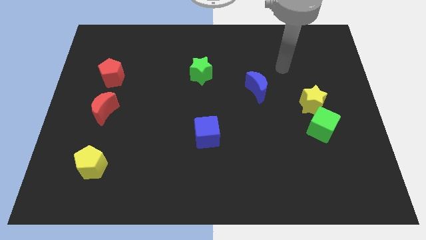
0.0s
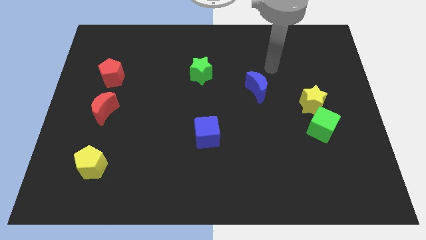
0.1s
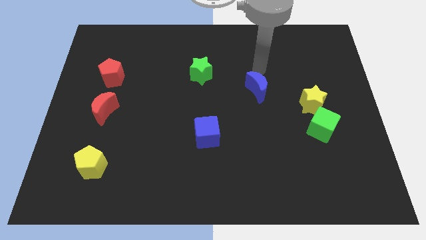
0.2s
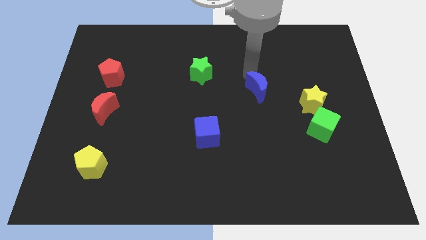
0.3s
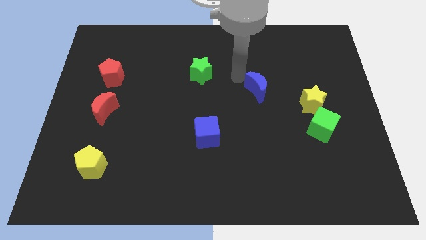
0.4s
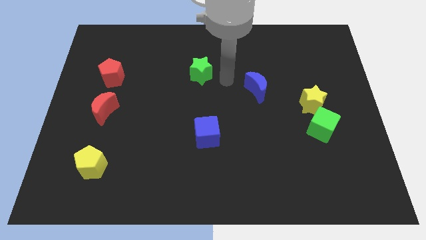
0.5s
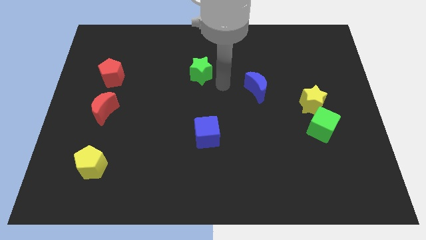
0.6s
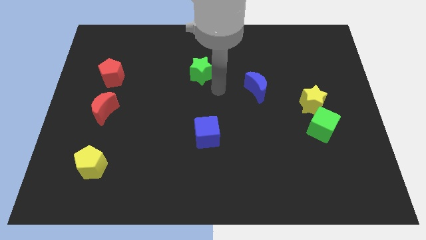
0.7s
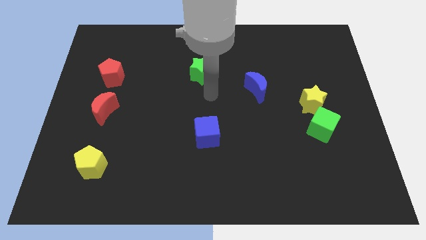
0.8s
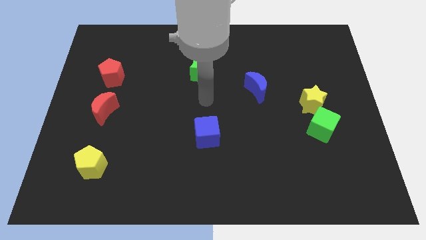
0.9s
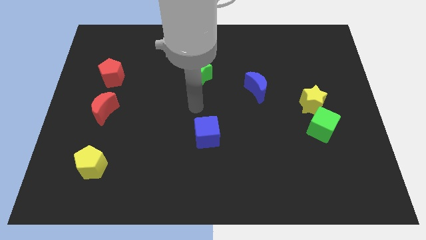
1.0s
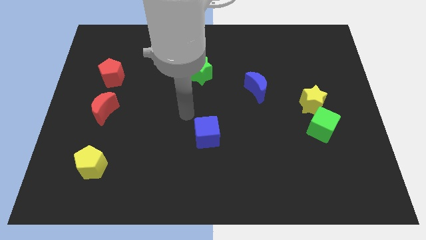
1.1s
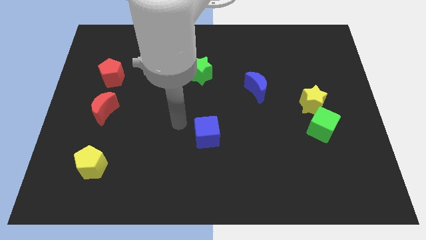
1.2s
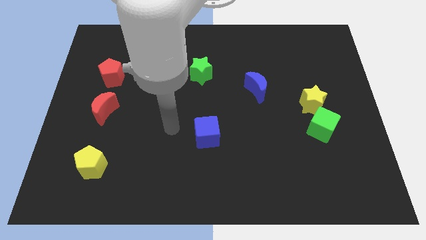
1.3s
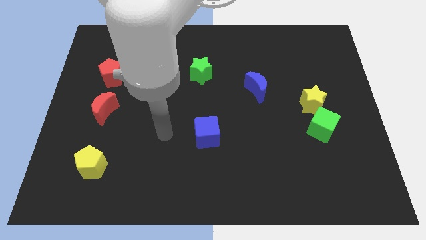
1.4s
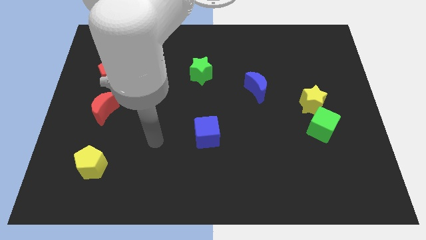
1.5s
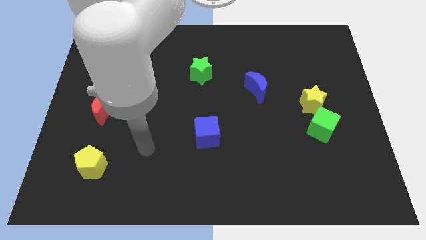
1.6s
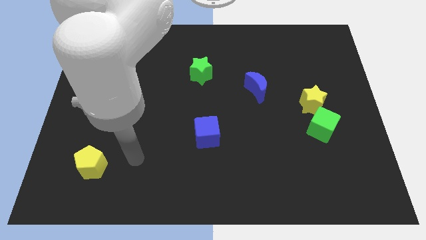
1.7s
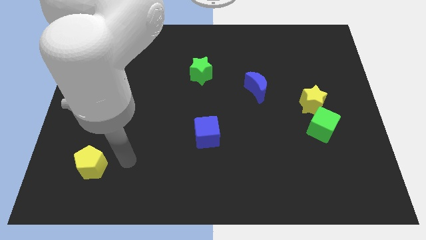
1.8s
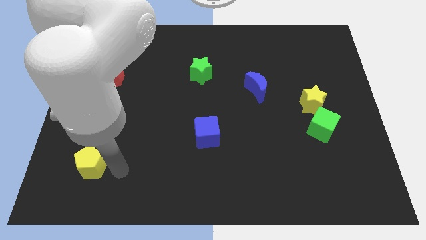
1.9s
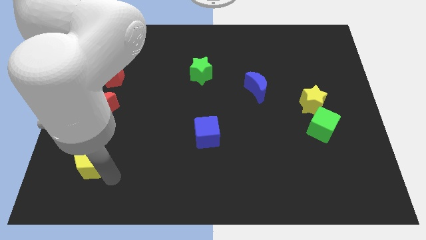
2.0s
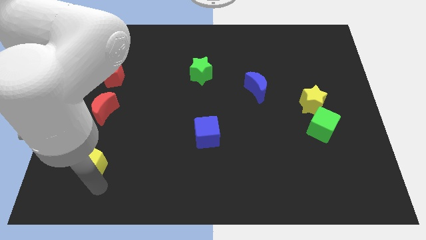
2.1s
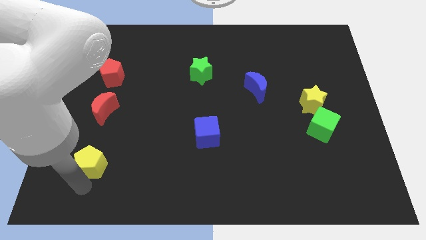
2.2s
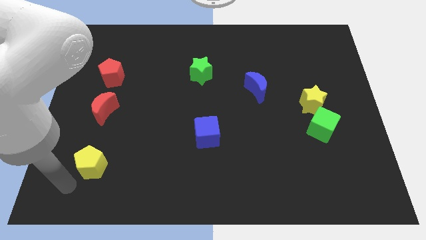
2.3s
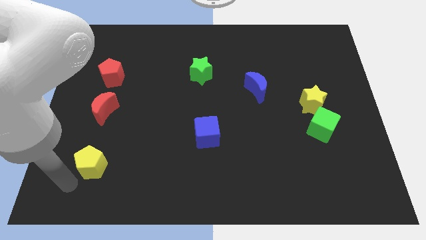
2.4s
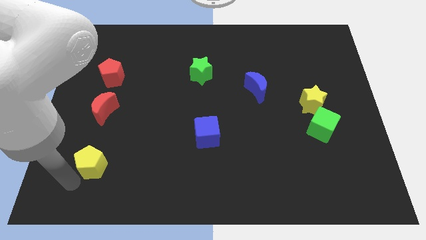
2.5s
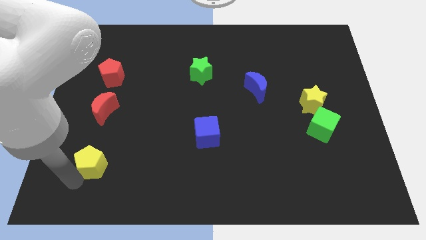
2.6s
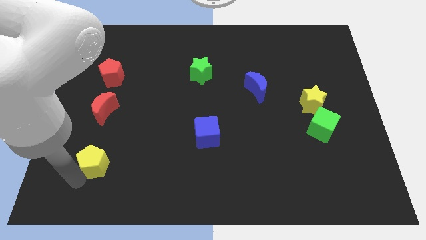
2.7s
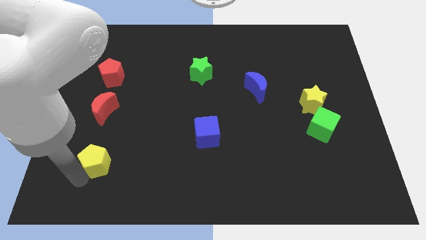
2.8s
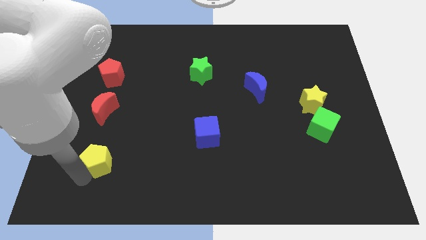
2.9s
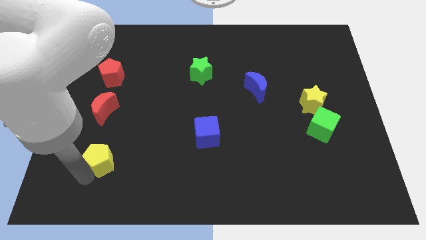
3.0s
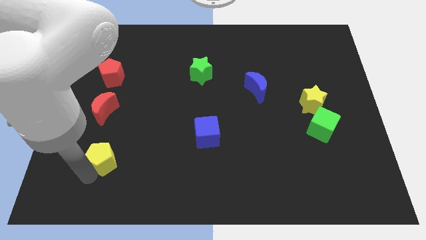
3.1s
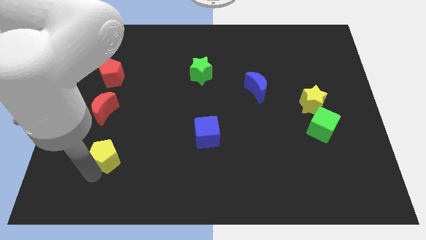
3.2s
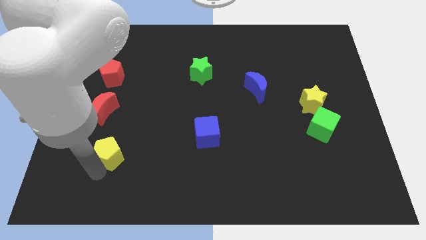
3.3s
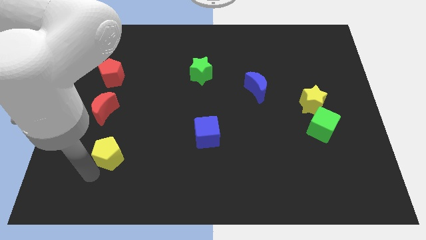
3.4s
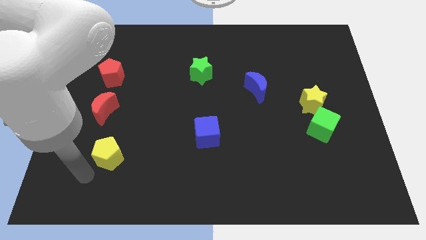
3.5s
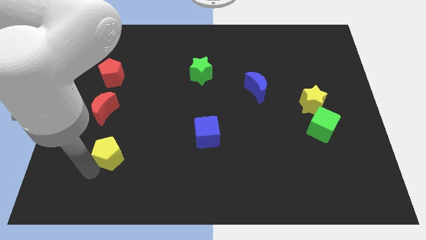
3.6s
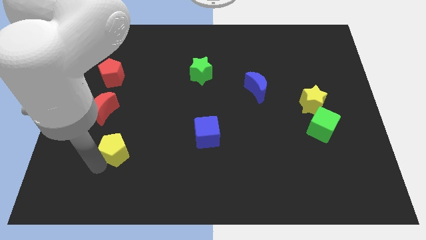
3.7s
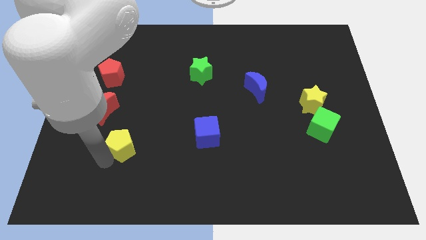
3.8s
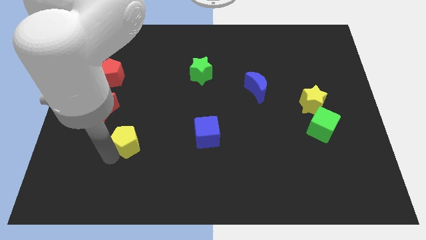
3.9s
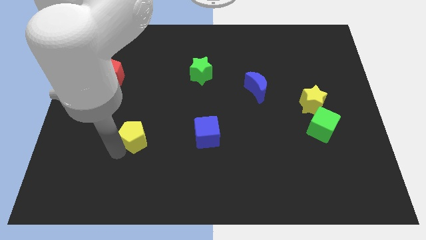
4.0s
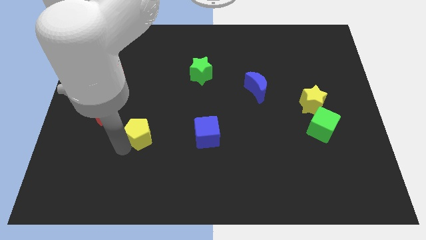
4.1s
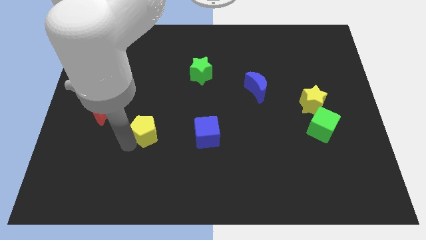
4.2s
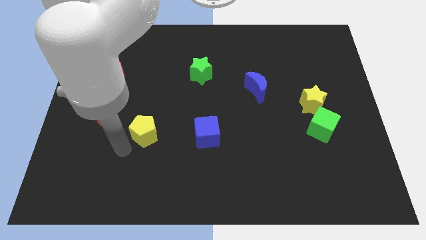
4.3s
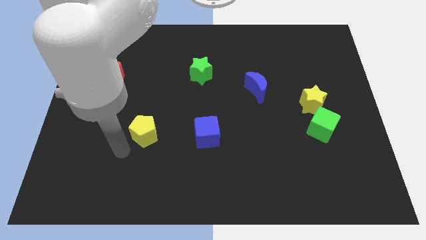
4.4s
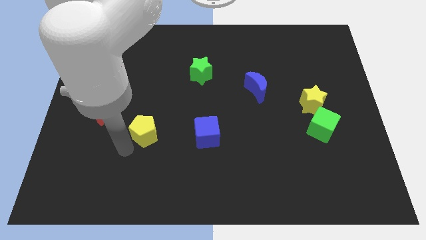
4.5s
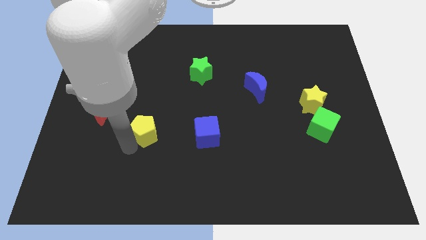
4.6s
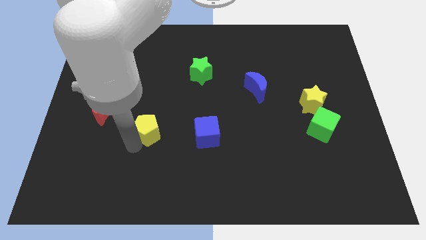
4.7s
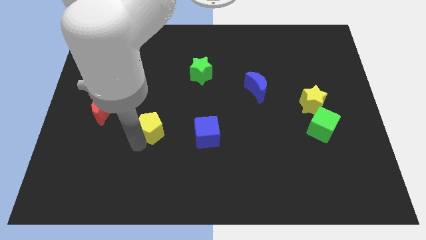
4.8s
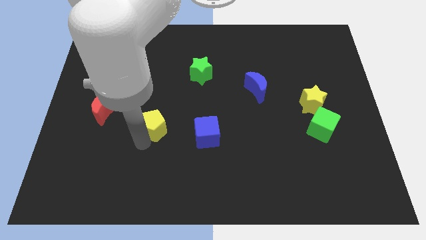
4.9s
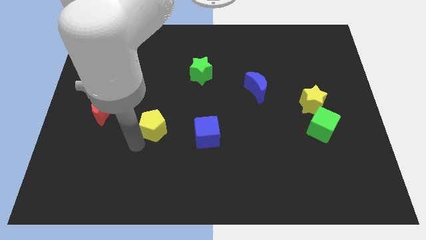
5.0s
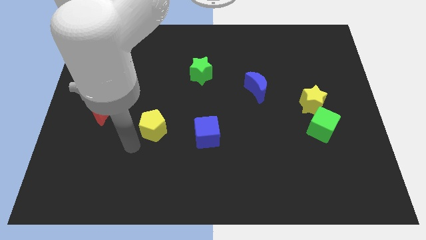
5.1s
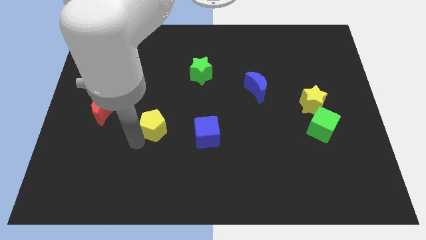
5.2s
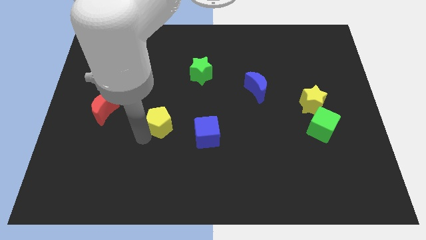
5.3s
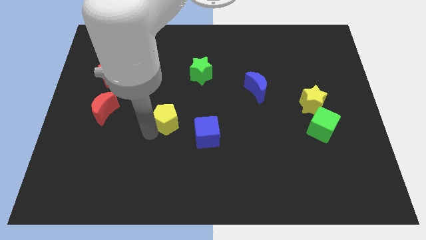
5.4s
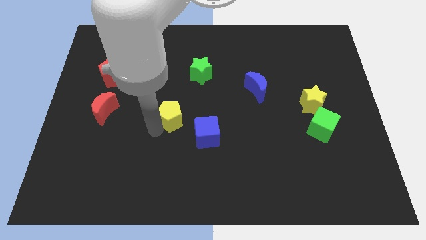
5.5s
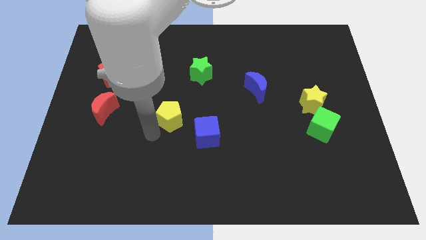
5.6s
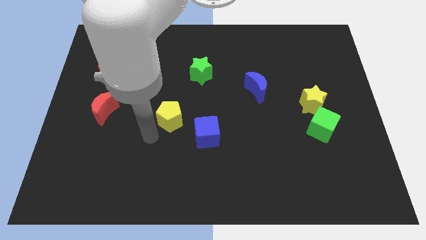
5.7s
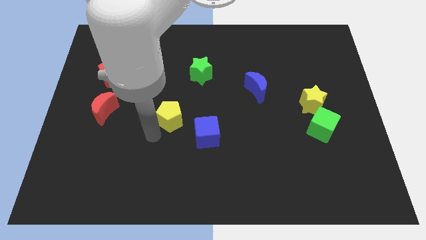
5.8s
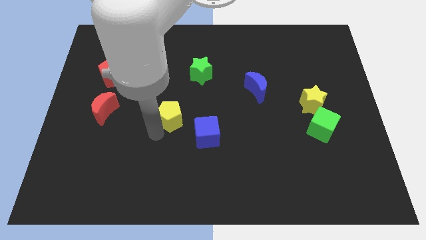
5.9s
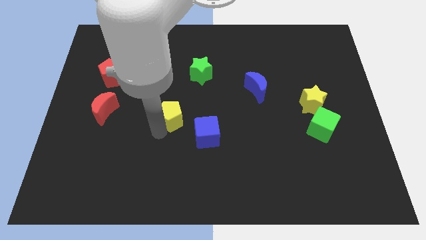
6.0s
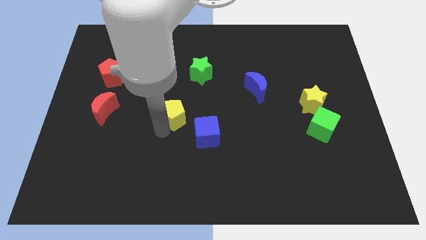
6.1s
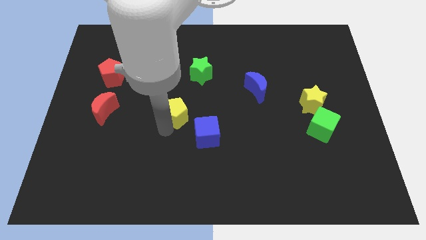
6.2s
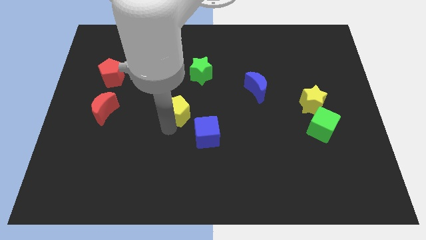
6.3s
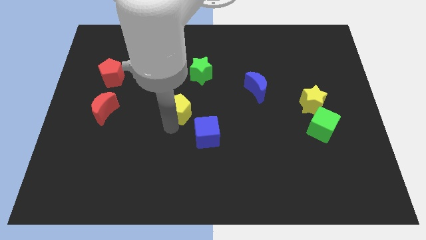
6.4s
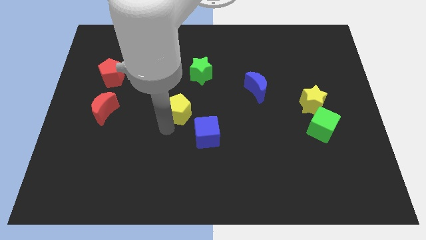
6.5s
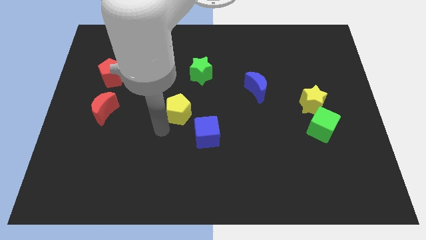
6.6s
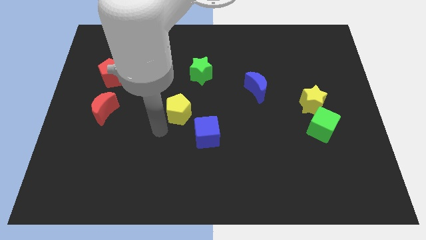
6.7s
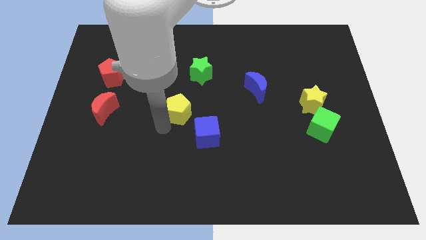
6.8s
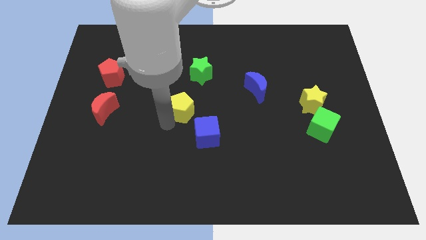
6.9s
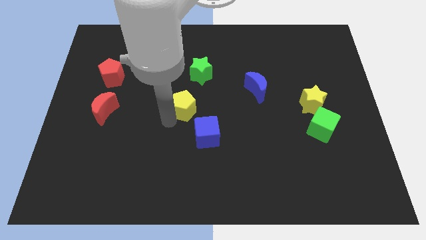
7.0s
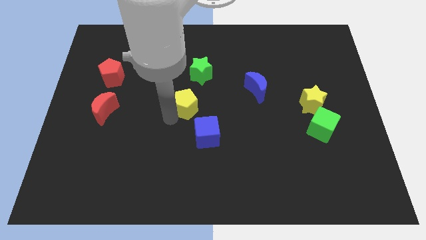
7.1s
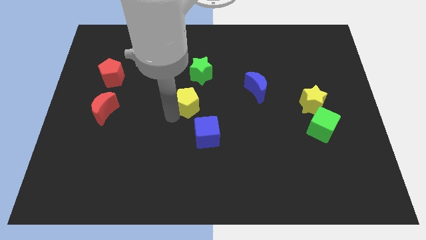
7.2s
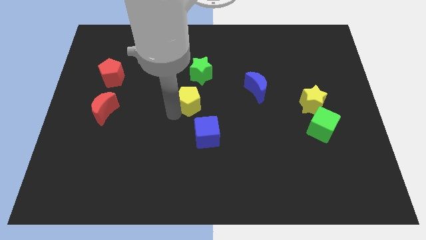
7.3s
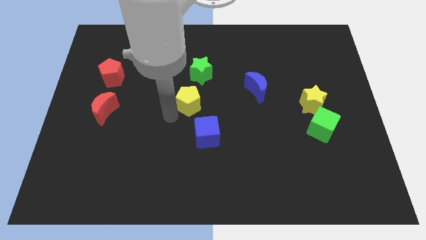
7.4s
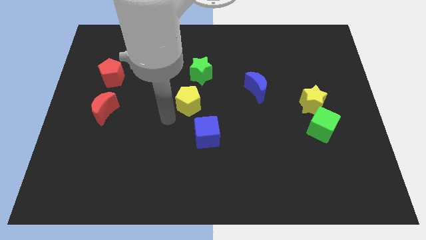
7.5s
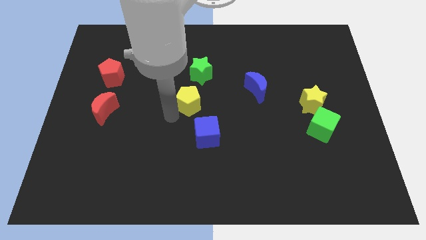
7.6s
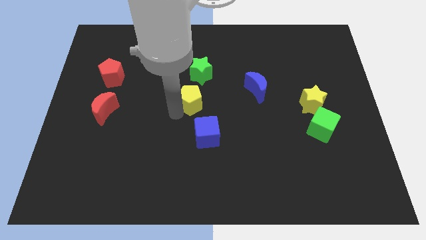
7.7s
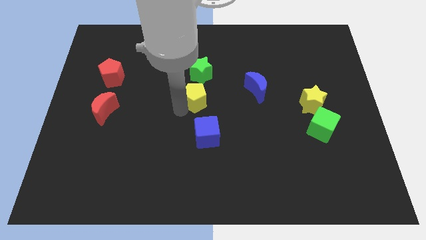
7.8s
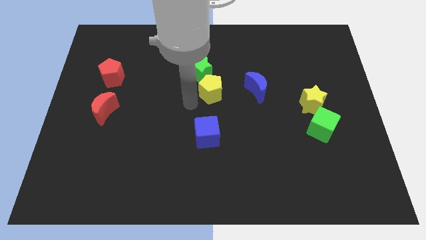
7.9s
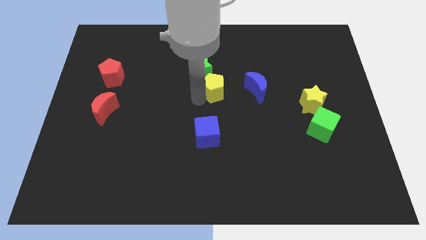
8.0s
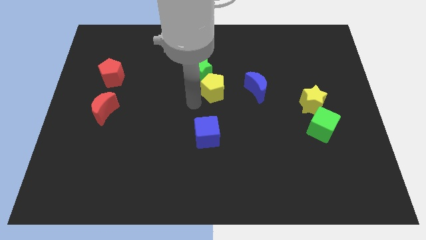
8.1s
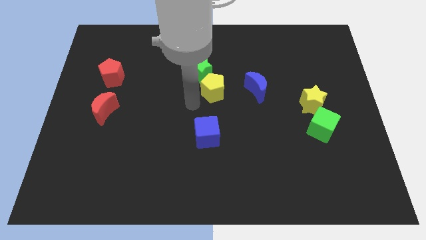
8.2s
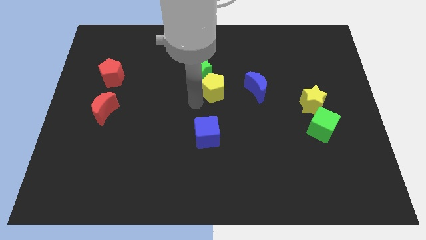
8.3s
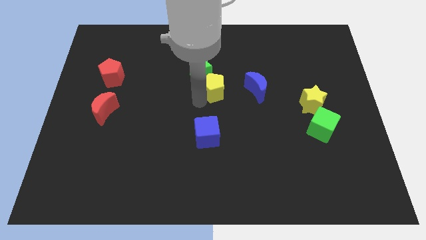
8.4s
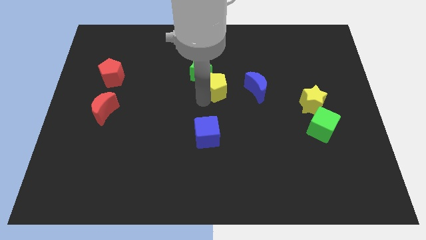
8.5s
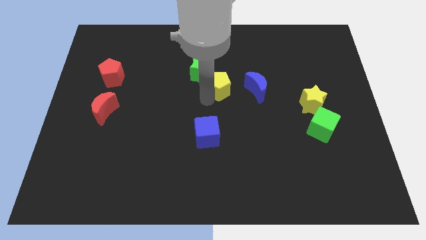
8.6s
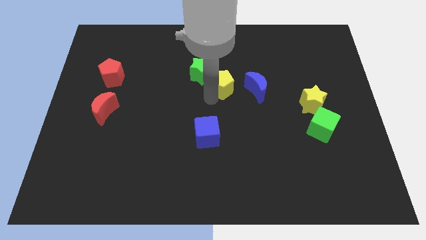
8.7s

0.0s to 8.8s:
move the yellow pentagon right of the green star
